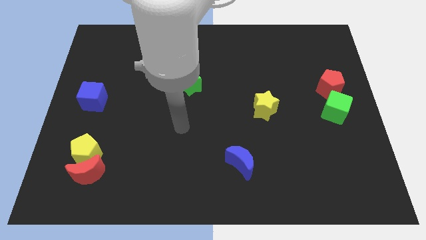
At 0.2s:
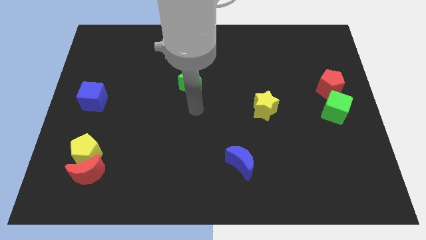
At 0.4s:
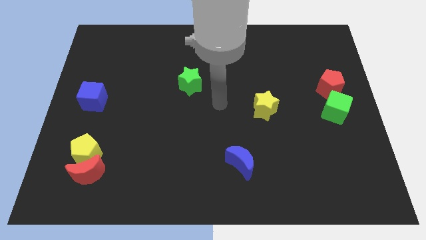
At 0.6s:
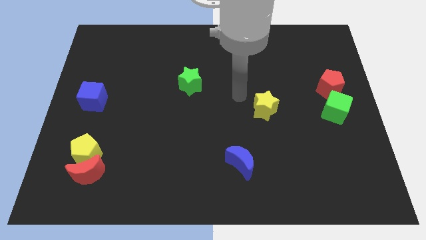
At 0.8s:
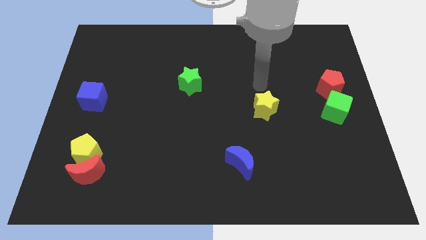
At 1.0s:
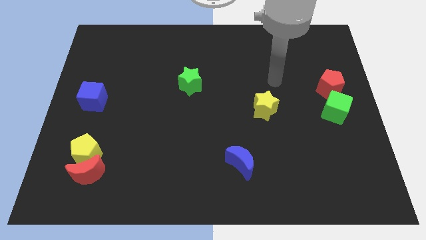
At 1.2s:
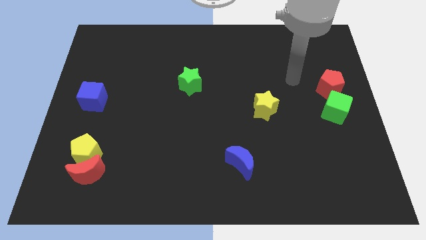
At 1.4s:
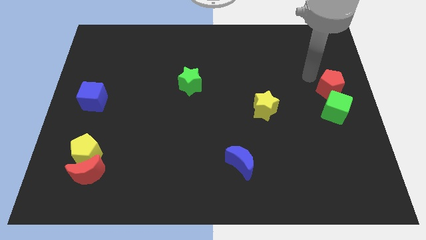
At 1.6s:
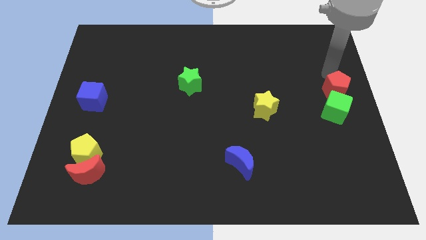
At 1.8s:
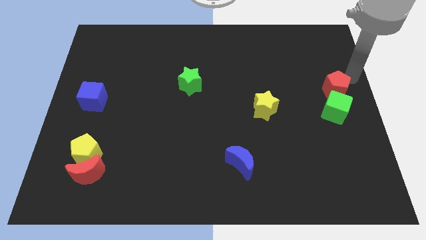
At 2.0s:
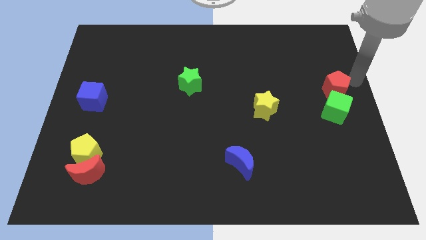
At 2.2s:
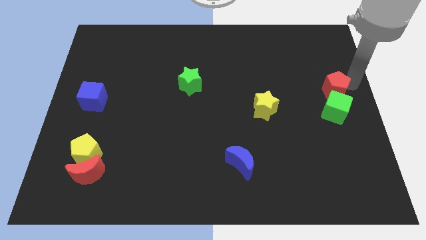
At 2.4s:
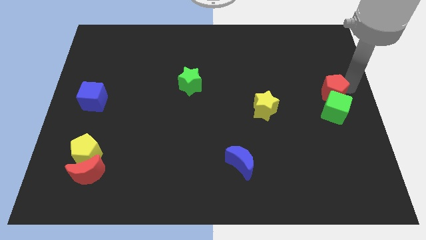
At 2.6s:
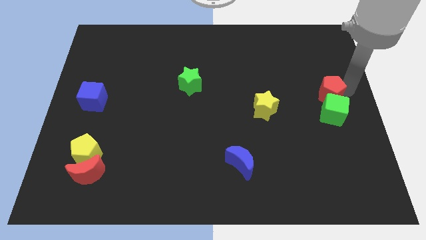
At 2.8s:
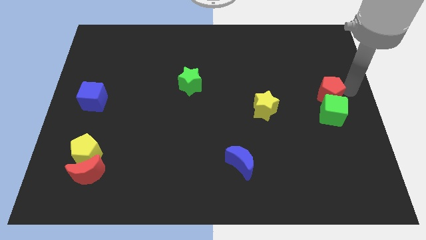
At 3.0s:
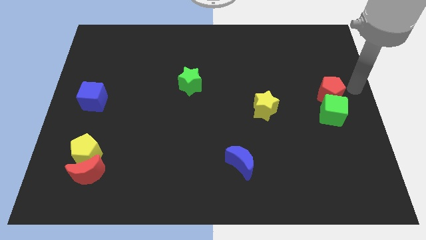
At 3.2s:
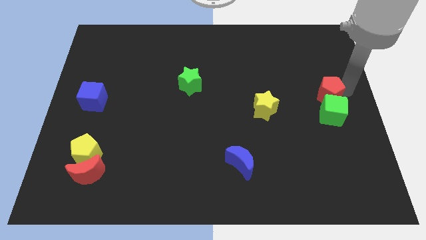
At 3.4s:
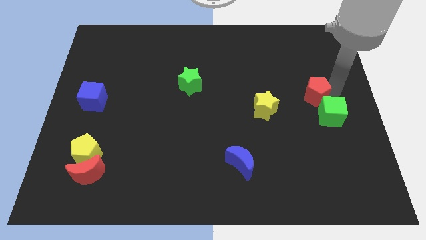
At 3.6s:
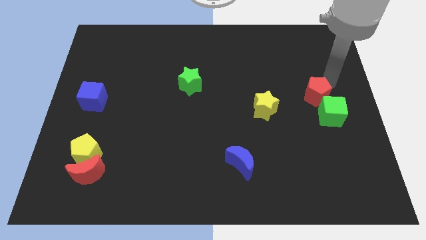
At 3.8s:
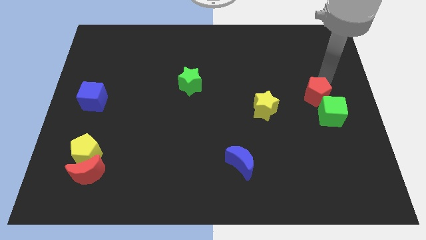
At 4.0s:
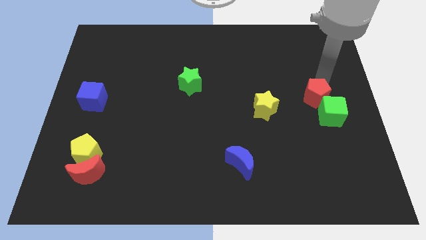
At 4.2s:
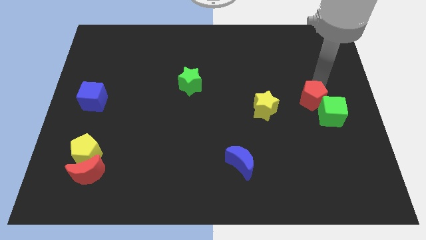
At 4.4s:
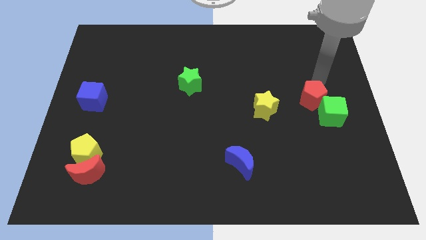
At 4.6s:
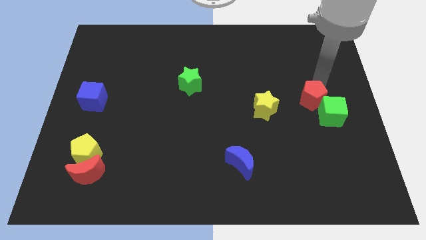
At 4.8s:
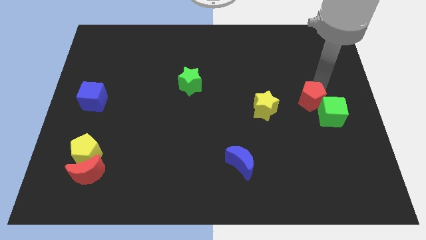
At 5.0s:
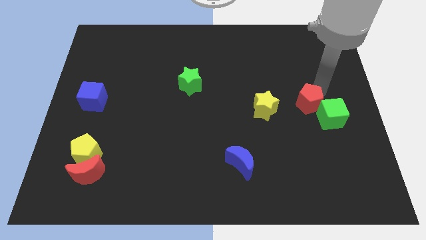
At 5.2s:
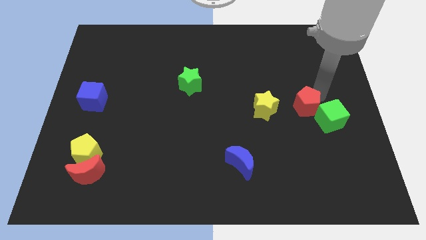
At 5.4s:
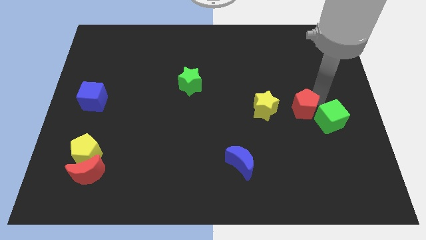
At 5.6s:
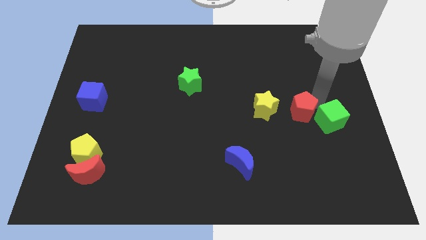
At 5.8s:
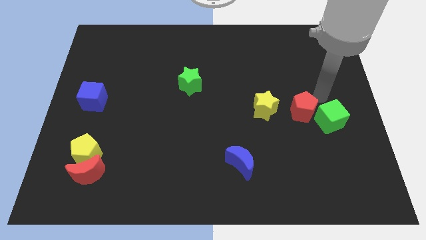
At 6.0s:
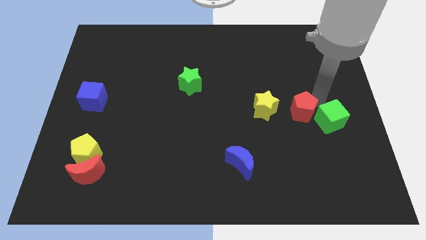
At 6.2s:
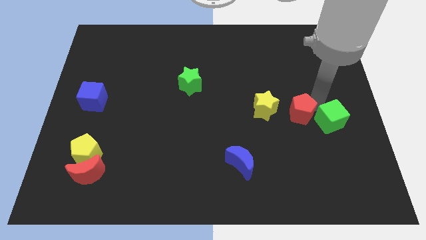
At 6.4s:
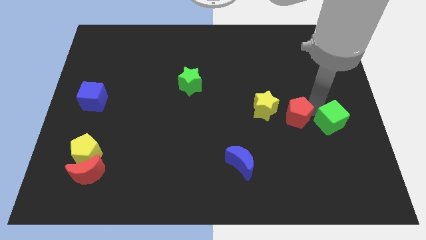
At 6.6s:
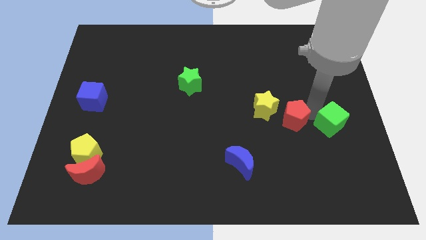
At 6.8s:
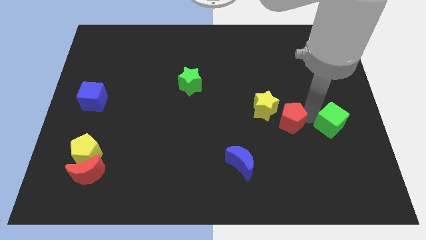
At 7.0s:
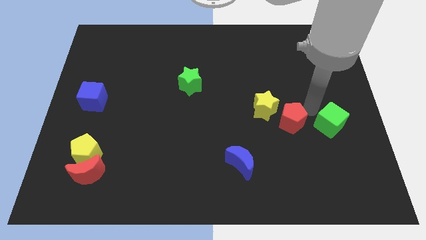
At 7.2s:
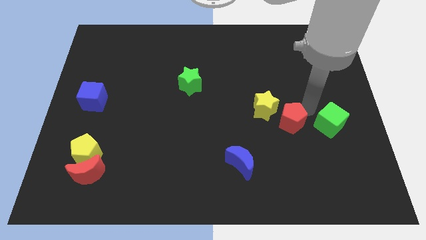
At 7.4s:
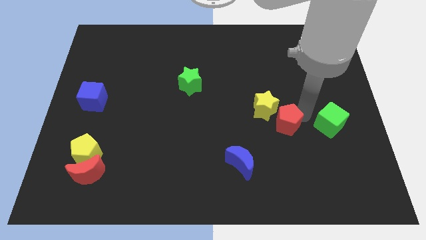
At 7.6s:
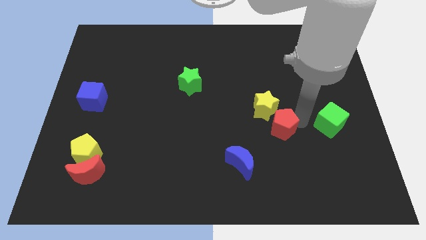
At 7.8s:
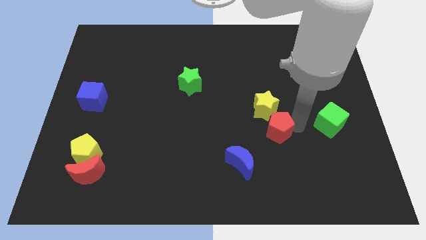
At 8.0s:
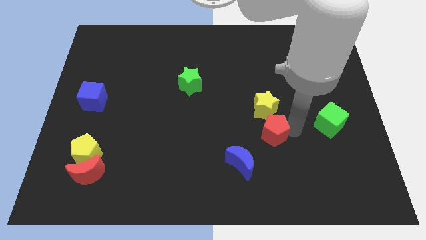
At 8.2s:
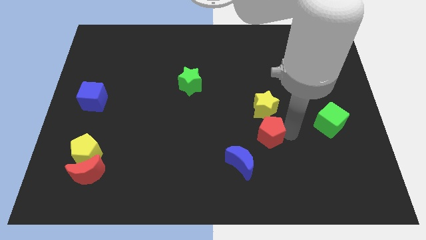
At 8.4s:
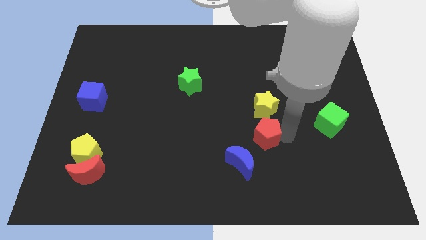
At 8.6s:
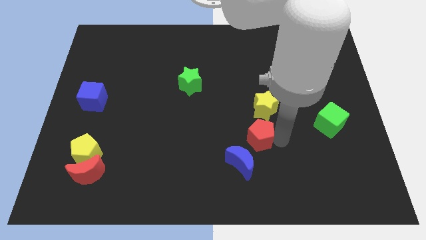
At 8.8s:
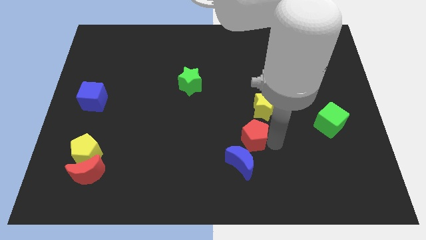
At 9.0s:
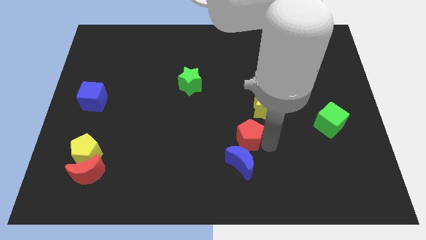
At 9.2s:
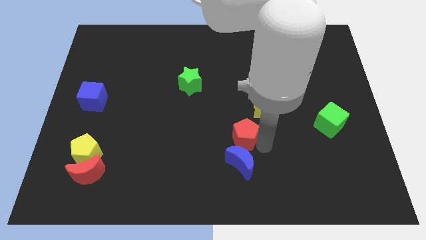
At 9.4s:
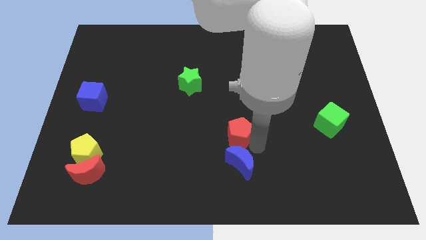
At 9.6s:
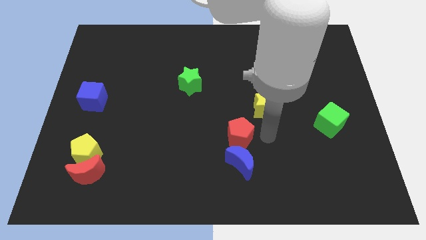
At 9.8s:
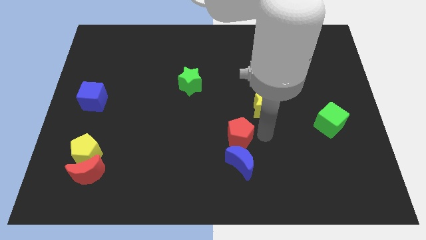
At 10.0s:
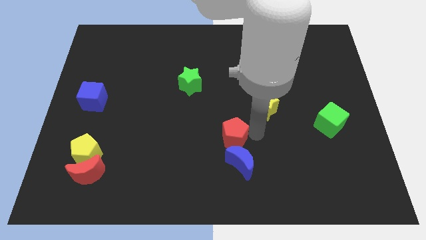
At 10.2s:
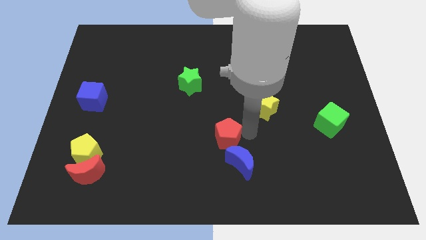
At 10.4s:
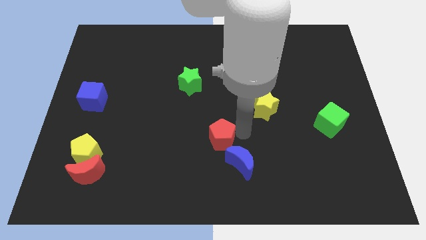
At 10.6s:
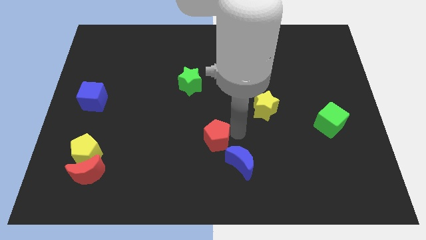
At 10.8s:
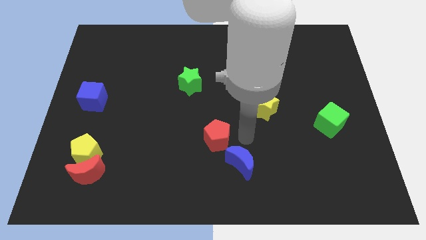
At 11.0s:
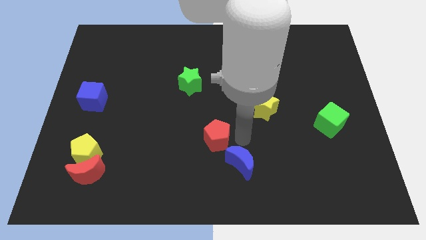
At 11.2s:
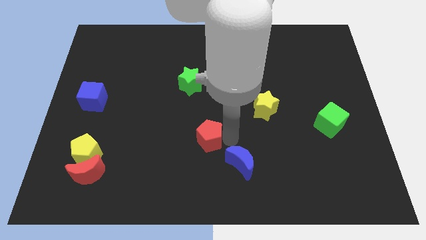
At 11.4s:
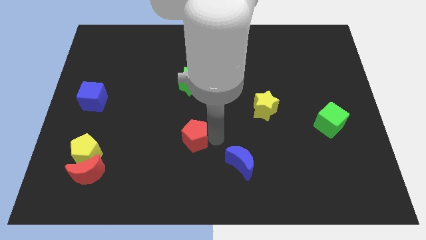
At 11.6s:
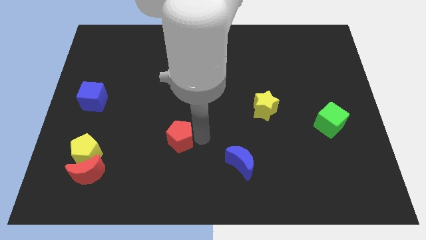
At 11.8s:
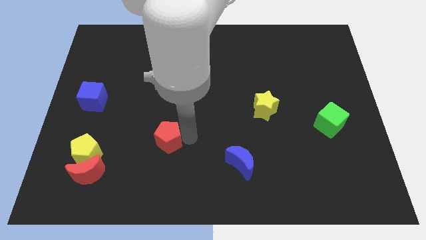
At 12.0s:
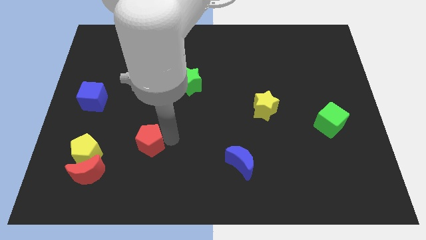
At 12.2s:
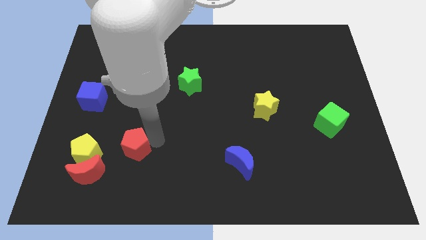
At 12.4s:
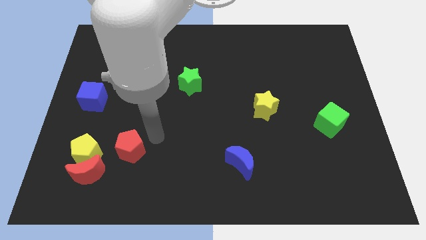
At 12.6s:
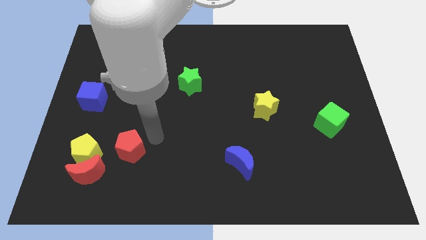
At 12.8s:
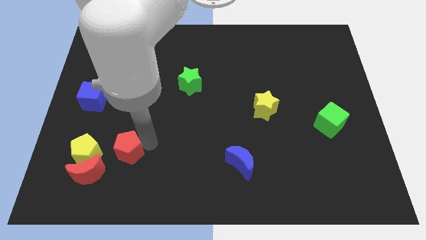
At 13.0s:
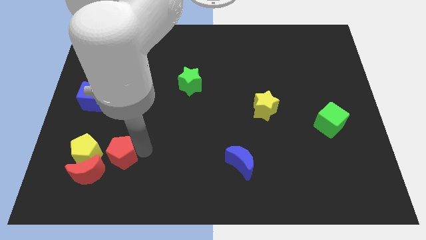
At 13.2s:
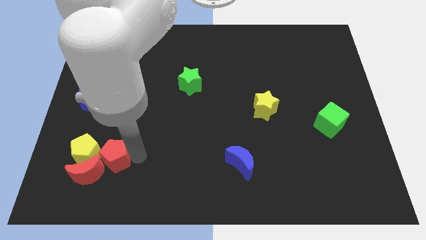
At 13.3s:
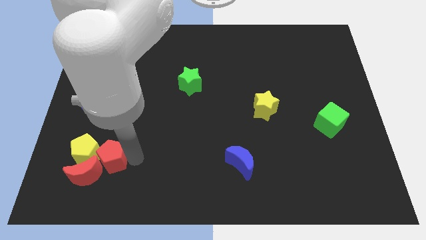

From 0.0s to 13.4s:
move the red pentagon close to the red moon

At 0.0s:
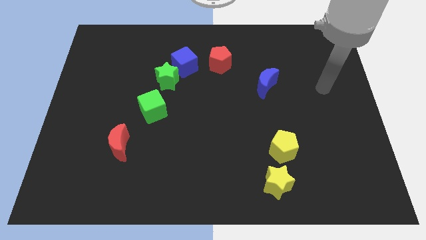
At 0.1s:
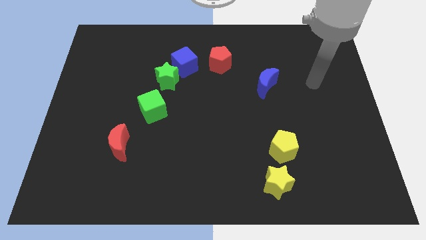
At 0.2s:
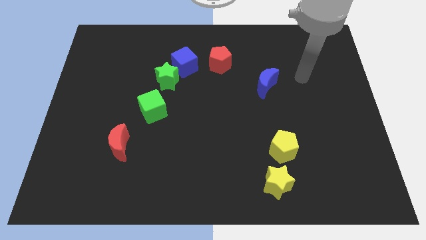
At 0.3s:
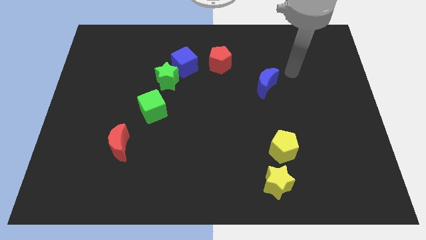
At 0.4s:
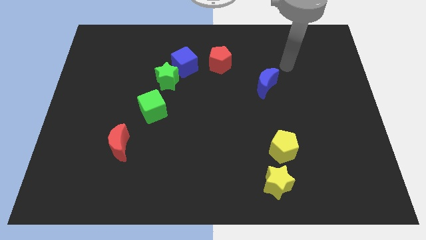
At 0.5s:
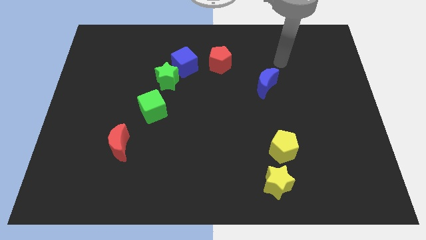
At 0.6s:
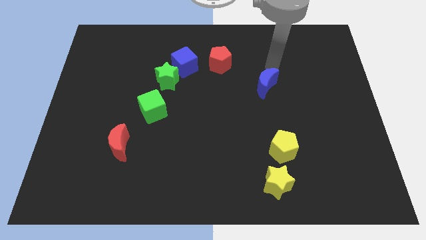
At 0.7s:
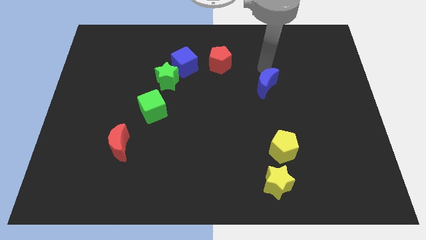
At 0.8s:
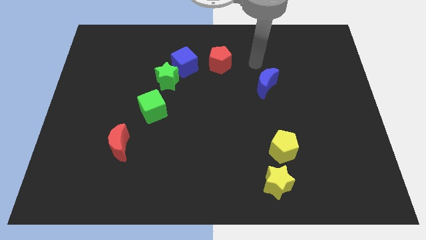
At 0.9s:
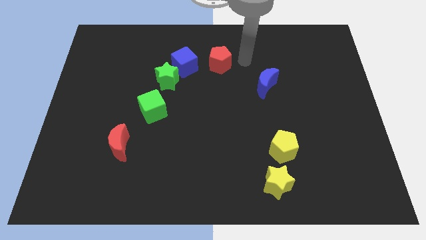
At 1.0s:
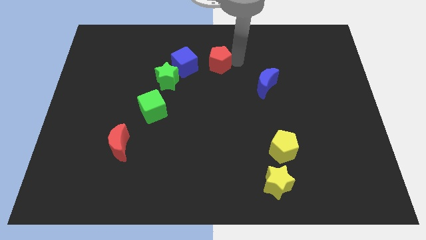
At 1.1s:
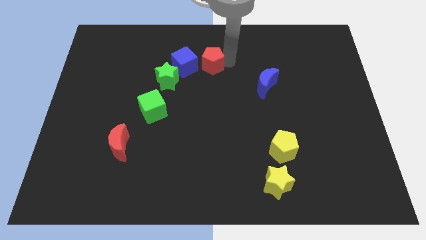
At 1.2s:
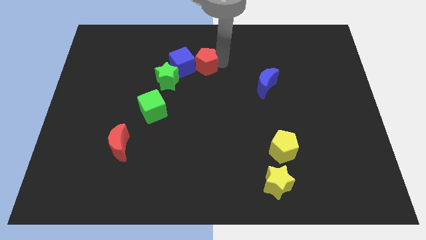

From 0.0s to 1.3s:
put the red pentagon close to the blue cube

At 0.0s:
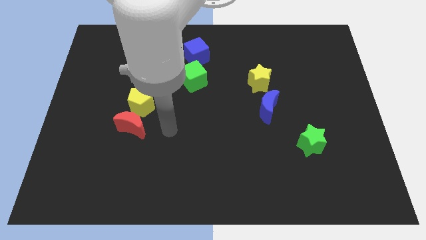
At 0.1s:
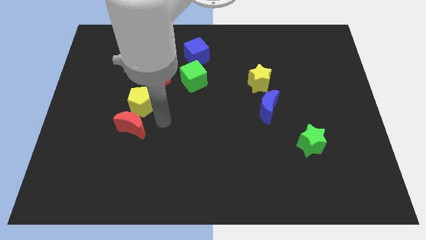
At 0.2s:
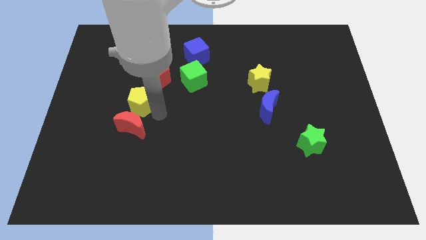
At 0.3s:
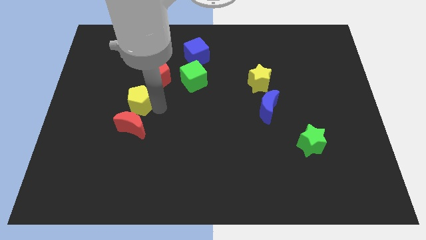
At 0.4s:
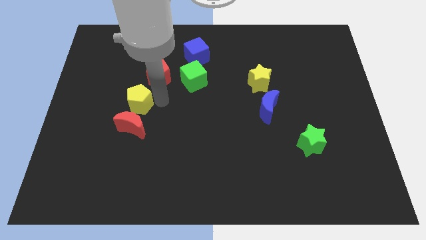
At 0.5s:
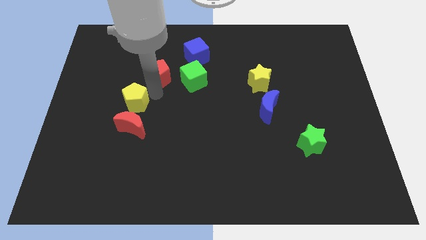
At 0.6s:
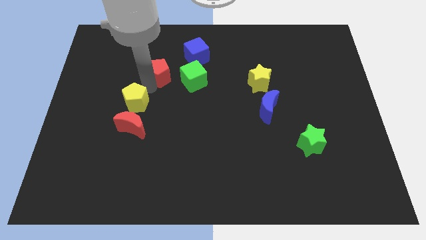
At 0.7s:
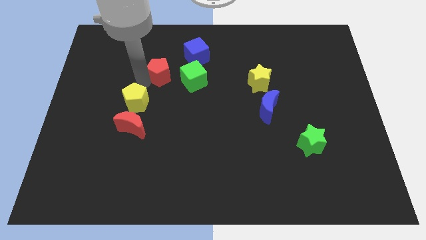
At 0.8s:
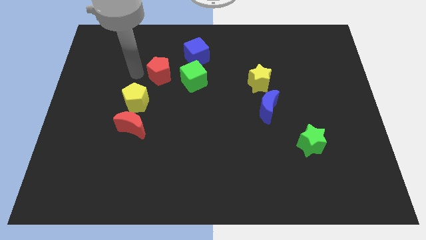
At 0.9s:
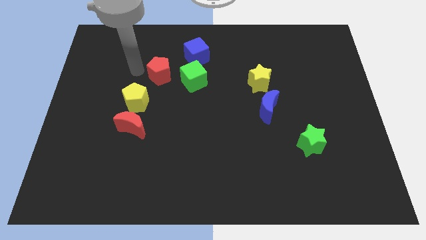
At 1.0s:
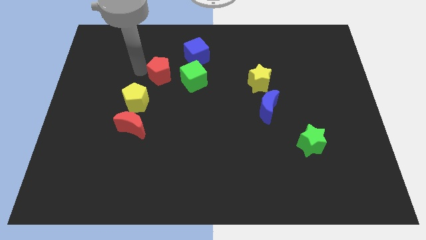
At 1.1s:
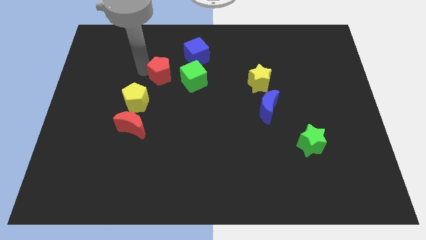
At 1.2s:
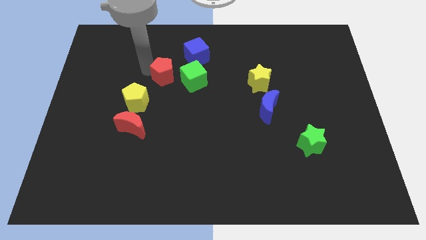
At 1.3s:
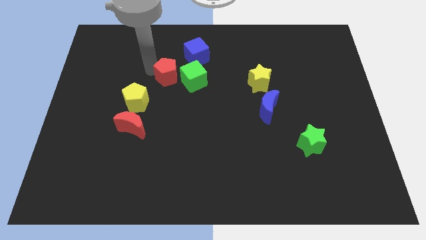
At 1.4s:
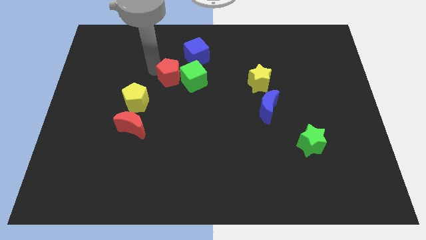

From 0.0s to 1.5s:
push the red pentagon towards the green cube
